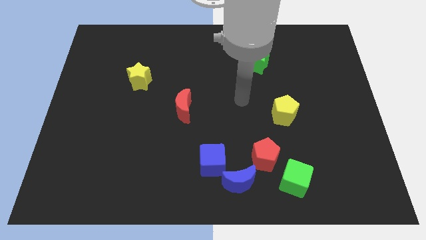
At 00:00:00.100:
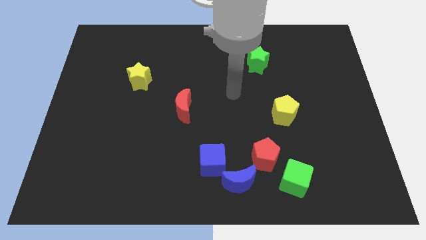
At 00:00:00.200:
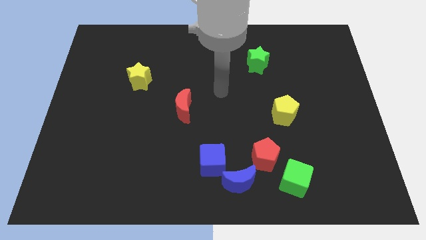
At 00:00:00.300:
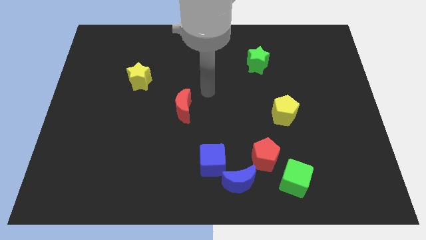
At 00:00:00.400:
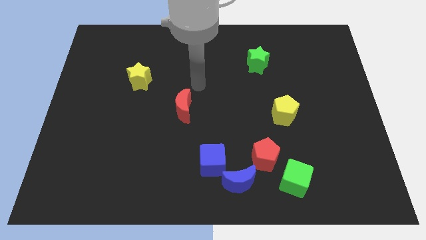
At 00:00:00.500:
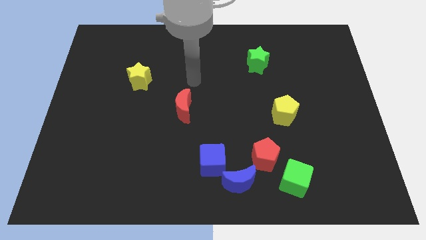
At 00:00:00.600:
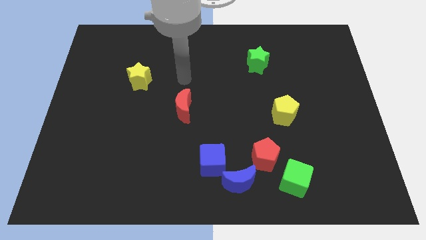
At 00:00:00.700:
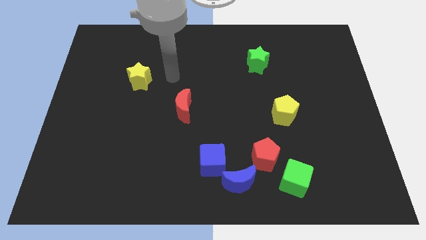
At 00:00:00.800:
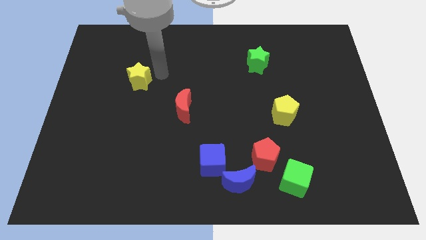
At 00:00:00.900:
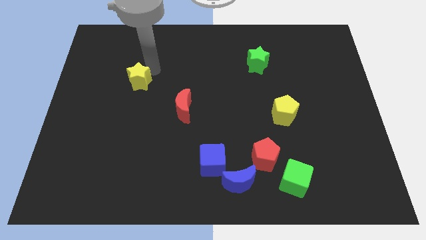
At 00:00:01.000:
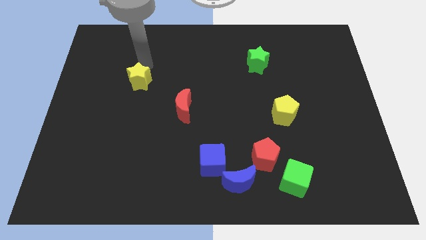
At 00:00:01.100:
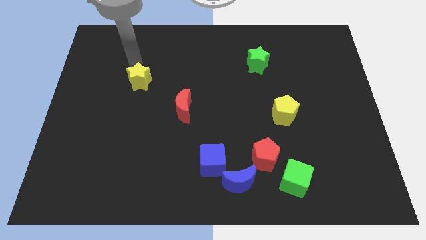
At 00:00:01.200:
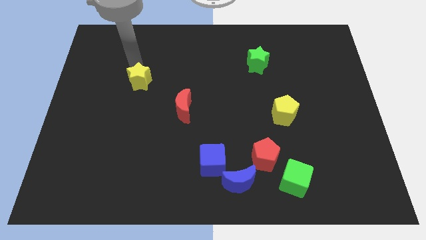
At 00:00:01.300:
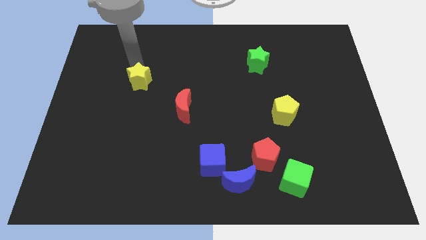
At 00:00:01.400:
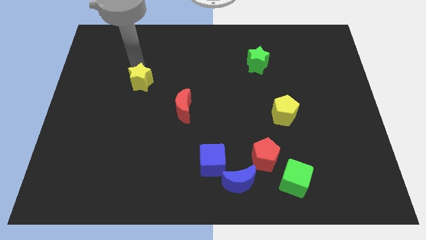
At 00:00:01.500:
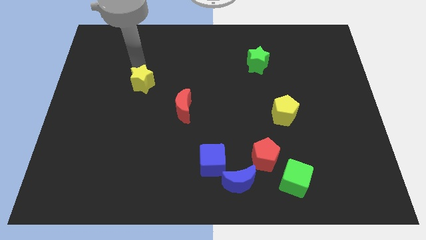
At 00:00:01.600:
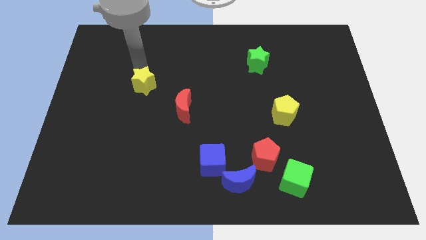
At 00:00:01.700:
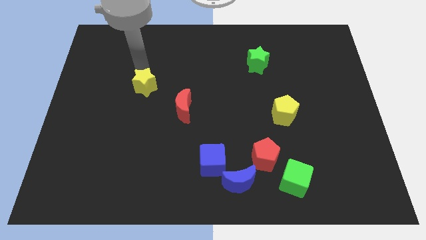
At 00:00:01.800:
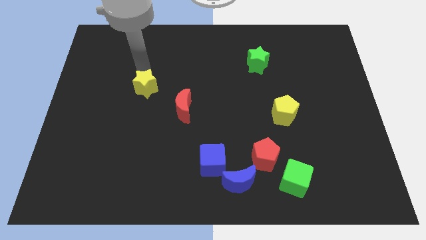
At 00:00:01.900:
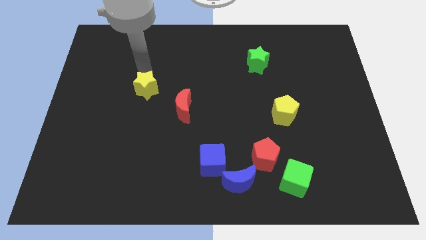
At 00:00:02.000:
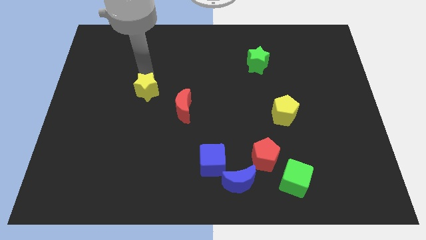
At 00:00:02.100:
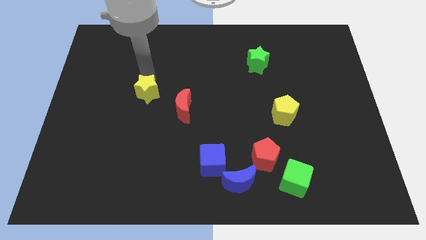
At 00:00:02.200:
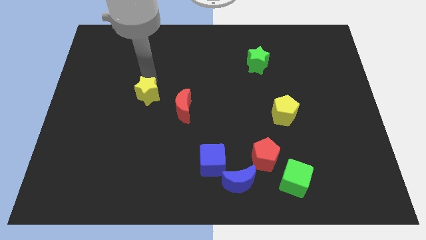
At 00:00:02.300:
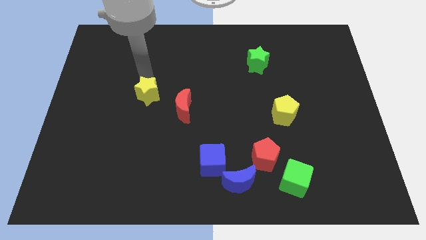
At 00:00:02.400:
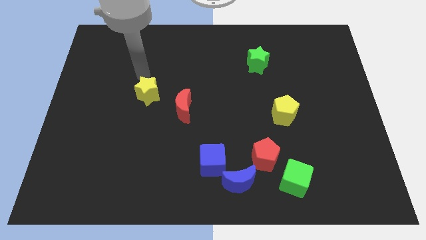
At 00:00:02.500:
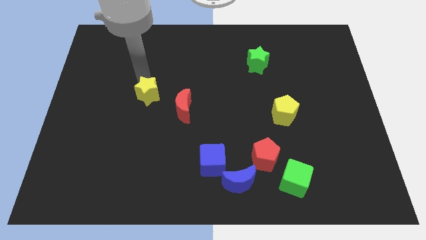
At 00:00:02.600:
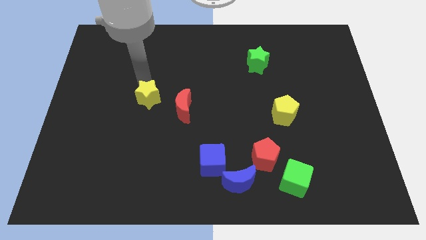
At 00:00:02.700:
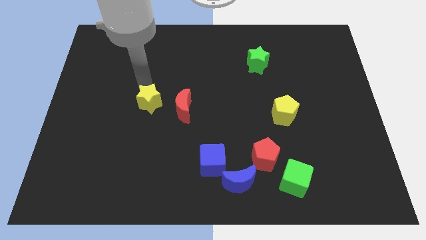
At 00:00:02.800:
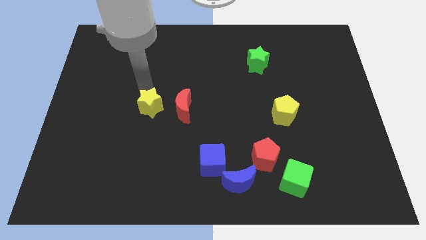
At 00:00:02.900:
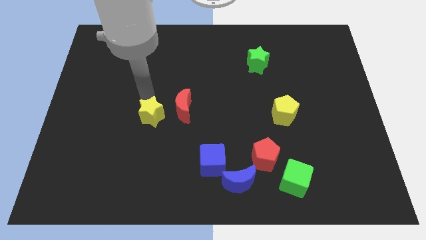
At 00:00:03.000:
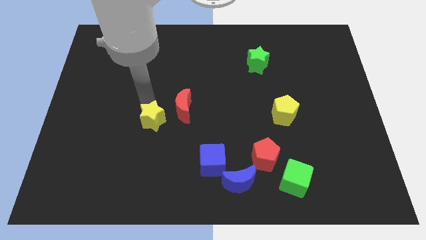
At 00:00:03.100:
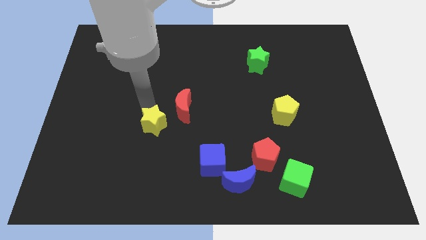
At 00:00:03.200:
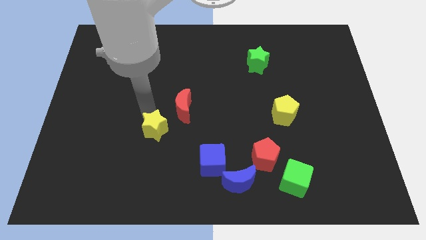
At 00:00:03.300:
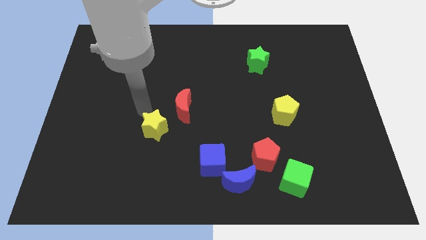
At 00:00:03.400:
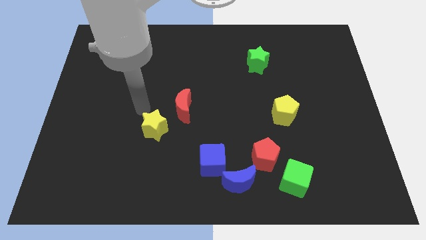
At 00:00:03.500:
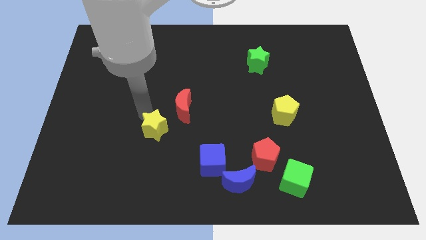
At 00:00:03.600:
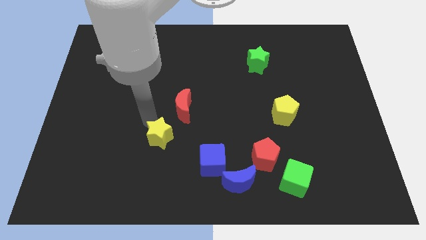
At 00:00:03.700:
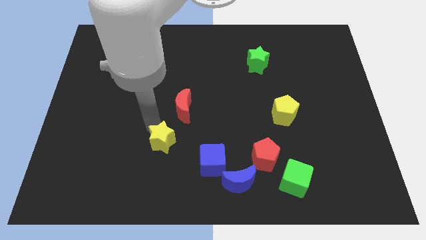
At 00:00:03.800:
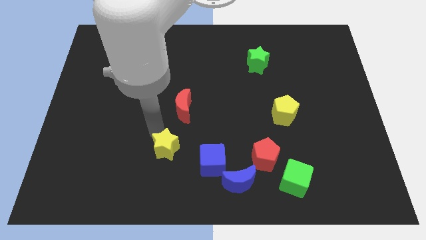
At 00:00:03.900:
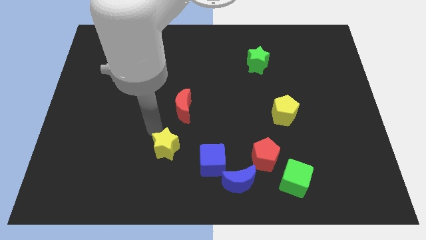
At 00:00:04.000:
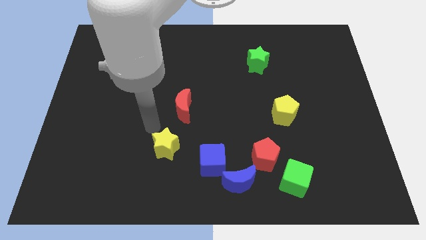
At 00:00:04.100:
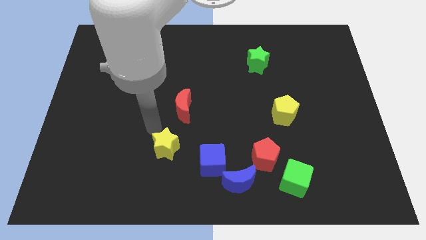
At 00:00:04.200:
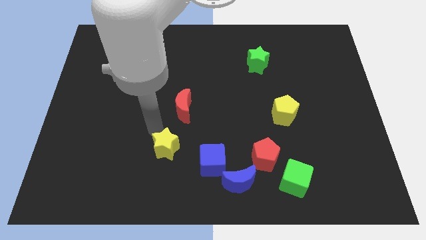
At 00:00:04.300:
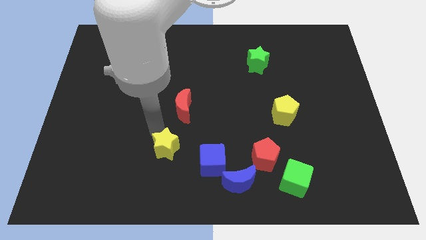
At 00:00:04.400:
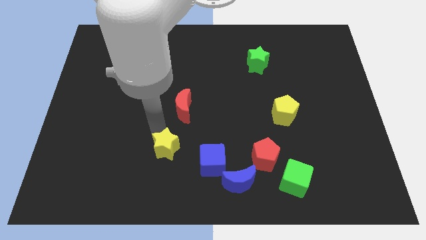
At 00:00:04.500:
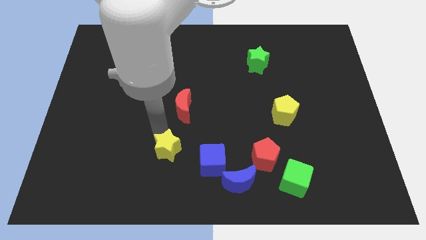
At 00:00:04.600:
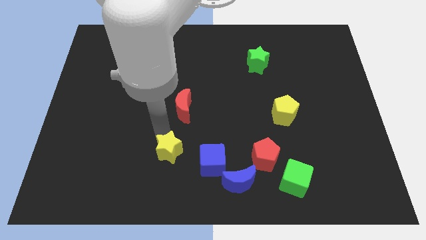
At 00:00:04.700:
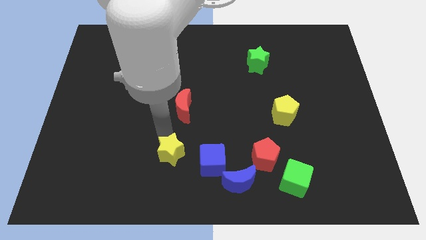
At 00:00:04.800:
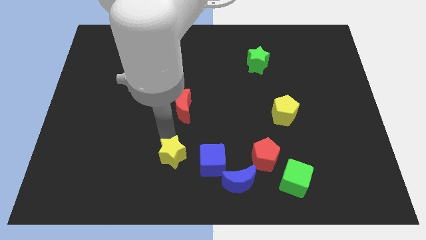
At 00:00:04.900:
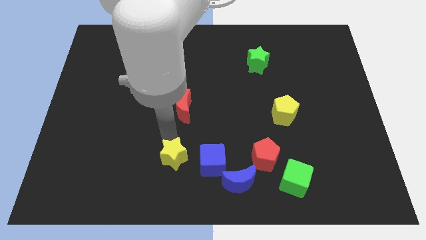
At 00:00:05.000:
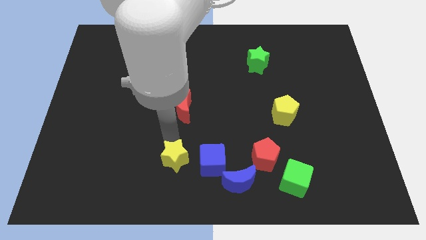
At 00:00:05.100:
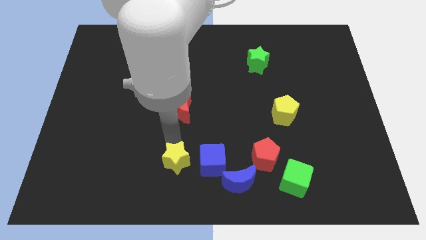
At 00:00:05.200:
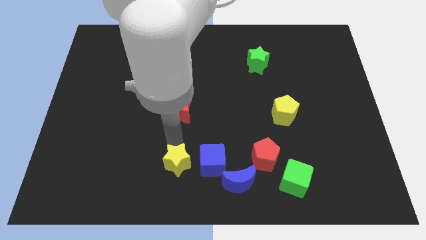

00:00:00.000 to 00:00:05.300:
put the yellow star to the bottom side
